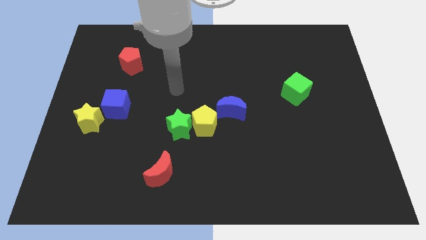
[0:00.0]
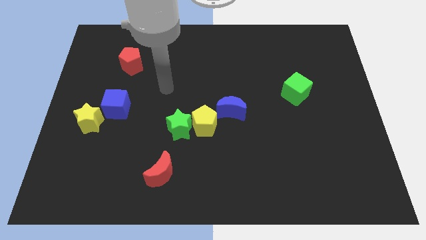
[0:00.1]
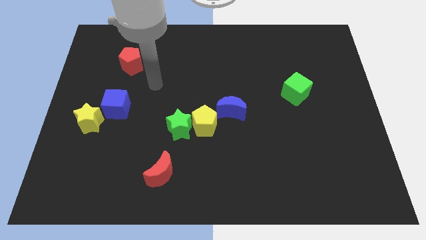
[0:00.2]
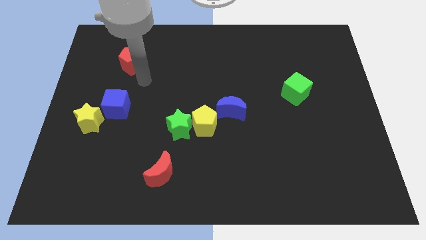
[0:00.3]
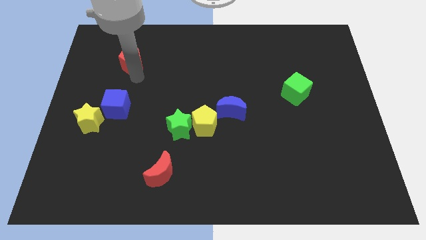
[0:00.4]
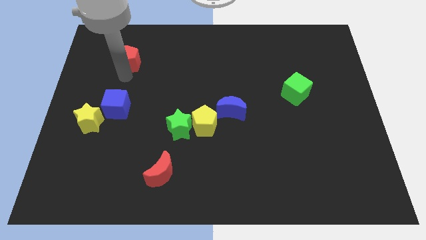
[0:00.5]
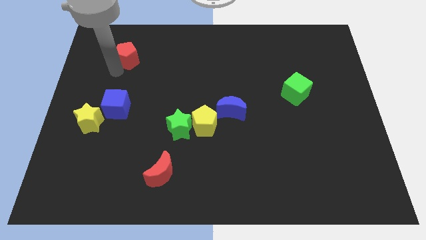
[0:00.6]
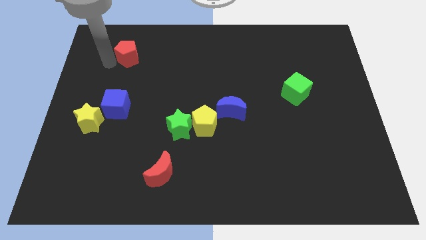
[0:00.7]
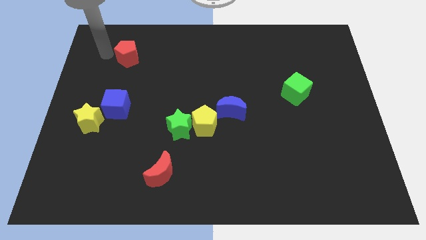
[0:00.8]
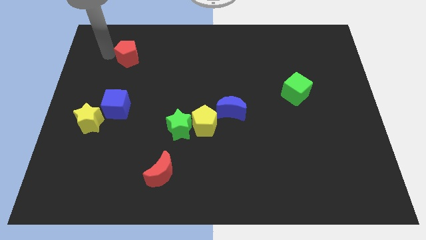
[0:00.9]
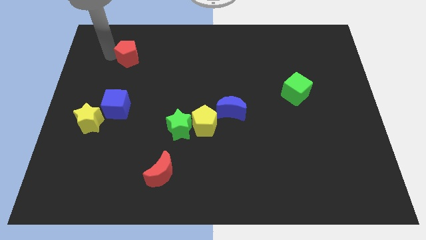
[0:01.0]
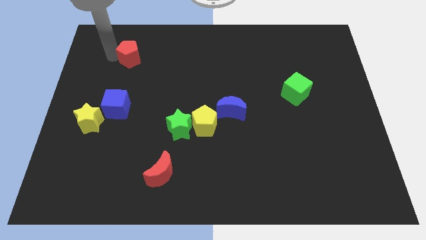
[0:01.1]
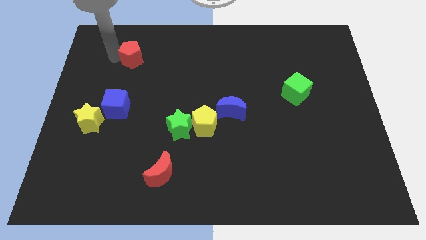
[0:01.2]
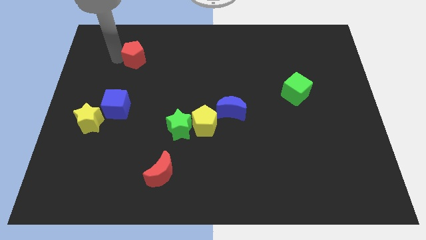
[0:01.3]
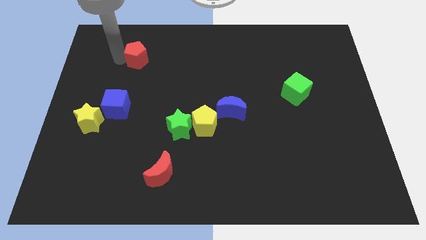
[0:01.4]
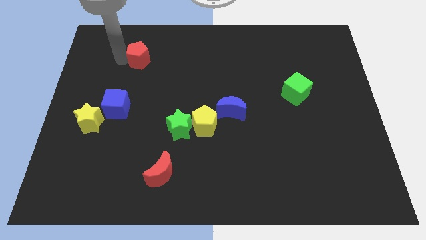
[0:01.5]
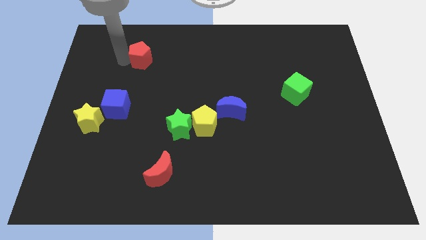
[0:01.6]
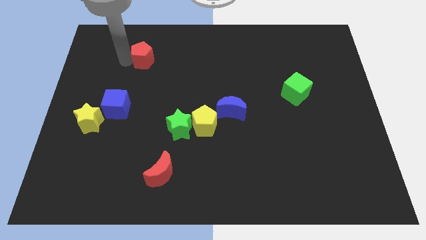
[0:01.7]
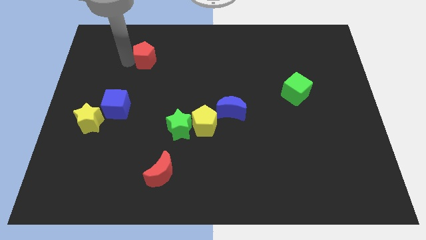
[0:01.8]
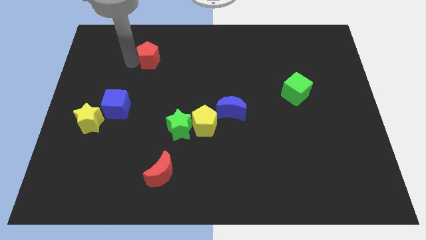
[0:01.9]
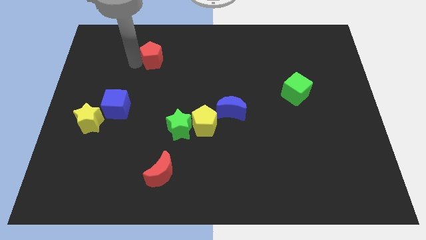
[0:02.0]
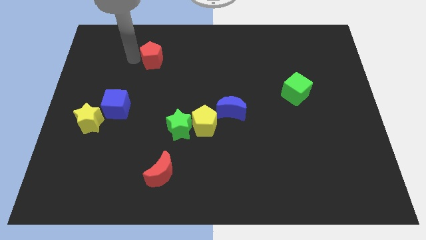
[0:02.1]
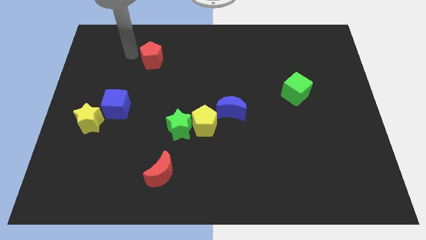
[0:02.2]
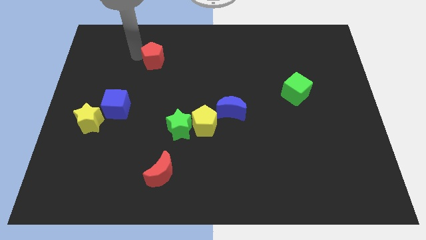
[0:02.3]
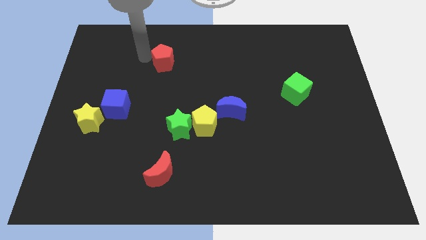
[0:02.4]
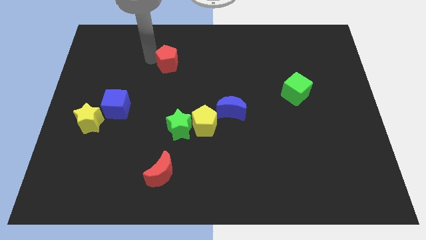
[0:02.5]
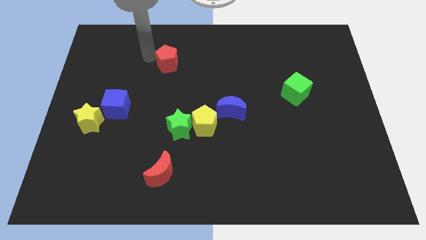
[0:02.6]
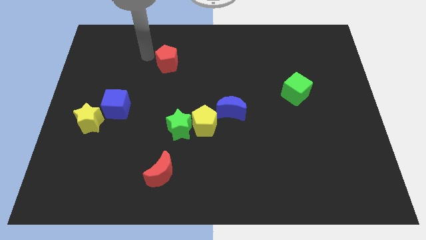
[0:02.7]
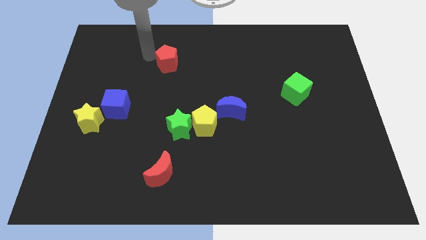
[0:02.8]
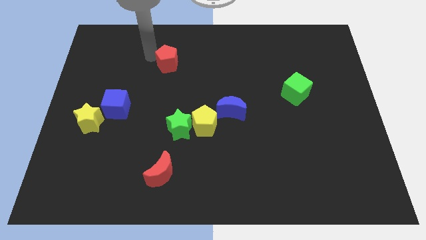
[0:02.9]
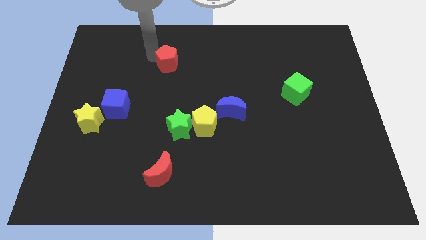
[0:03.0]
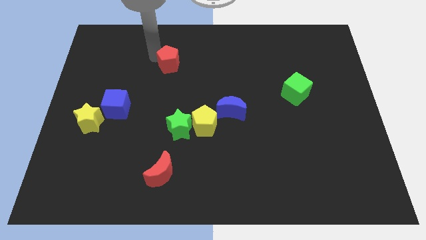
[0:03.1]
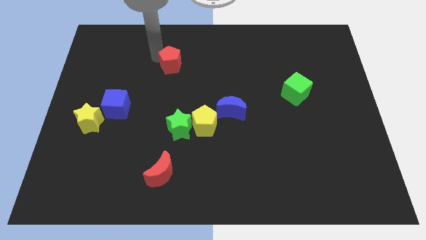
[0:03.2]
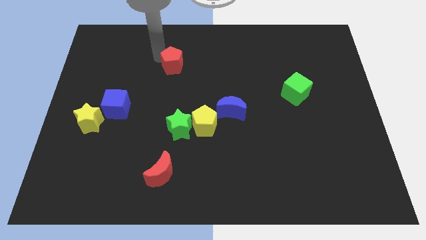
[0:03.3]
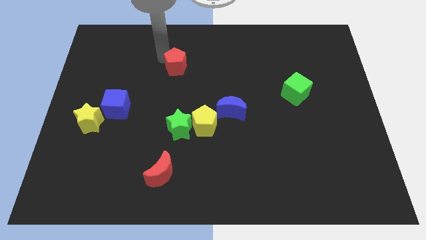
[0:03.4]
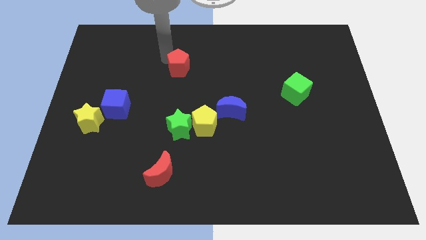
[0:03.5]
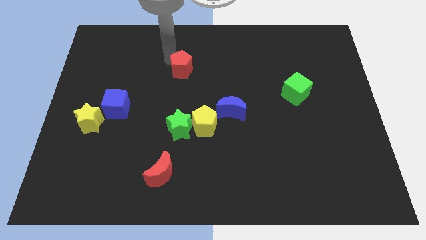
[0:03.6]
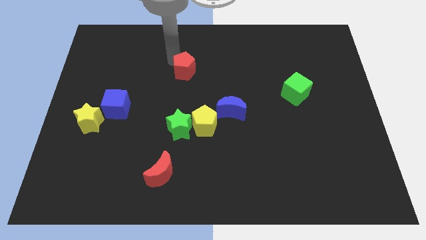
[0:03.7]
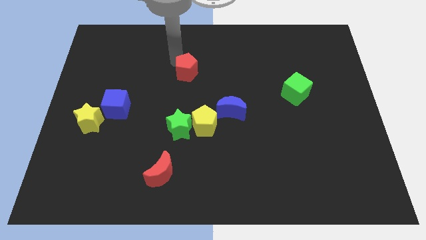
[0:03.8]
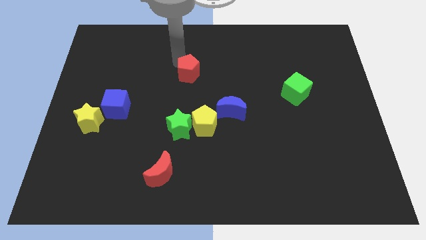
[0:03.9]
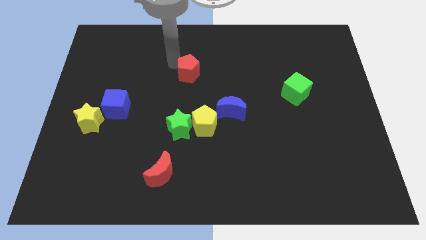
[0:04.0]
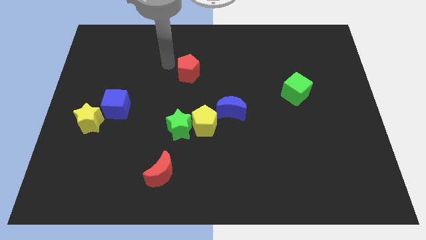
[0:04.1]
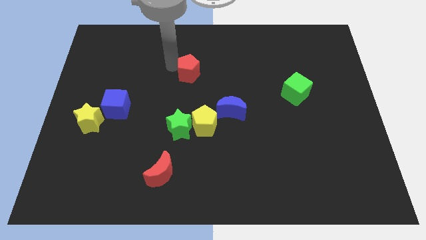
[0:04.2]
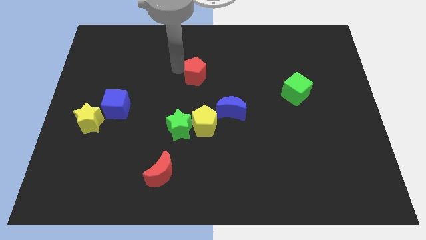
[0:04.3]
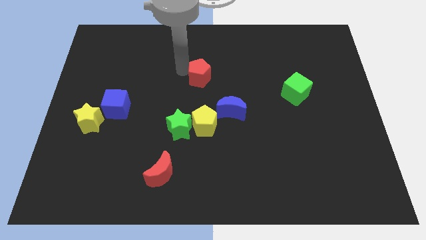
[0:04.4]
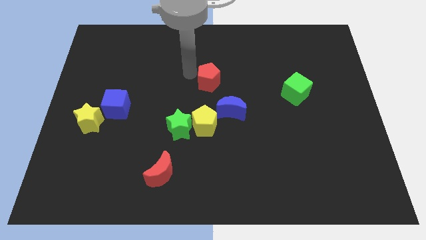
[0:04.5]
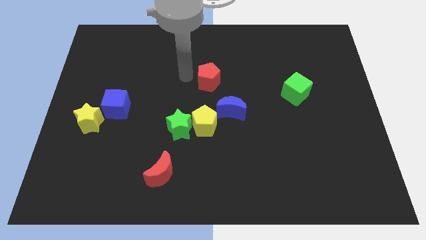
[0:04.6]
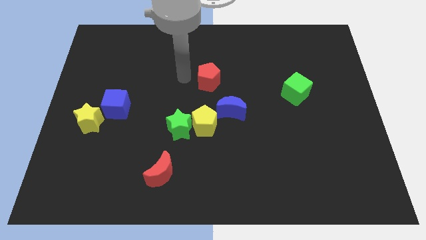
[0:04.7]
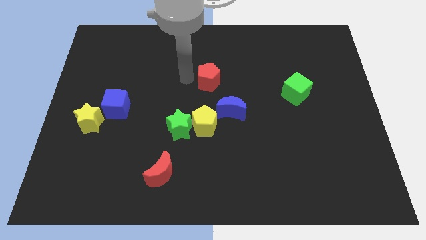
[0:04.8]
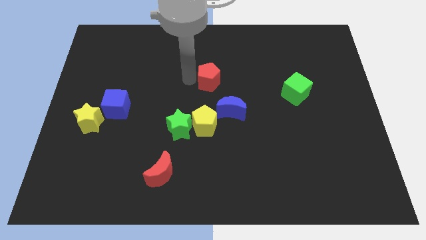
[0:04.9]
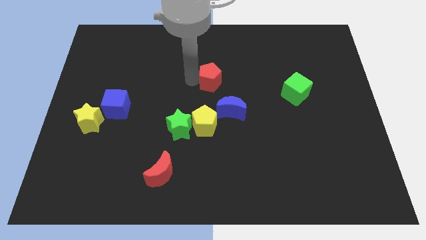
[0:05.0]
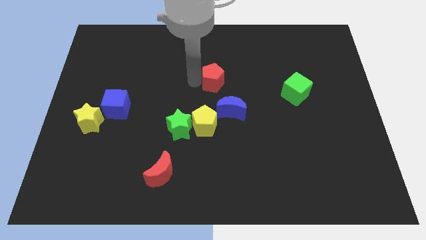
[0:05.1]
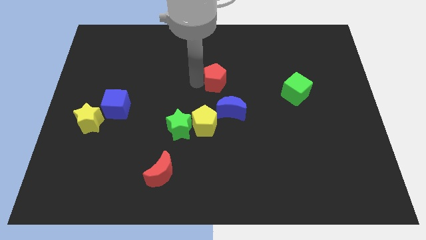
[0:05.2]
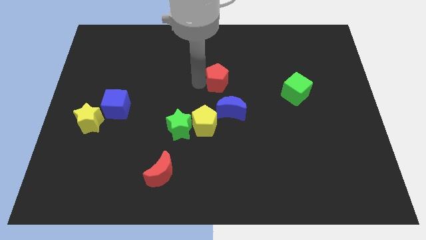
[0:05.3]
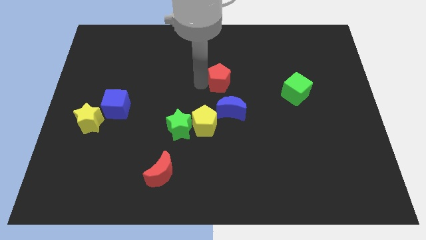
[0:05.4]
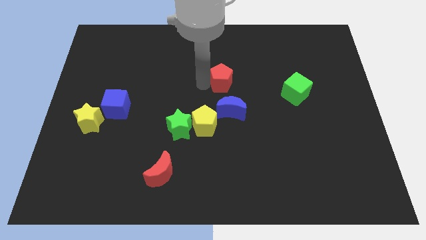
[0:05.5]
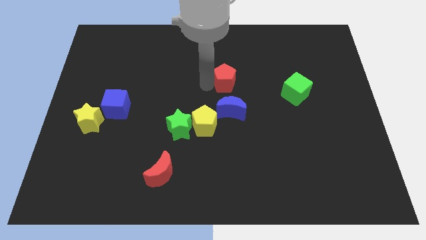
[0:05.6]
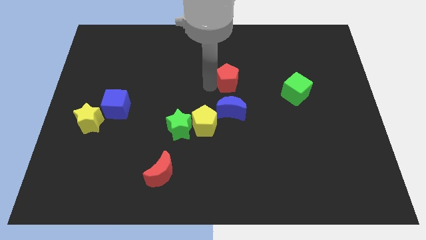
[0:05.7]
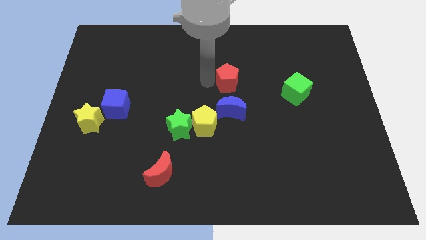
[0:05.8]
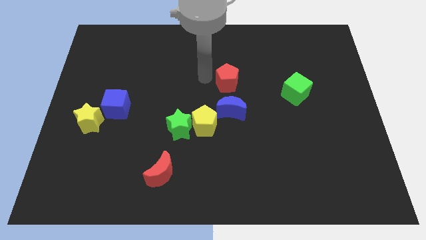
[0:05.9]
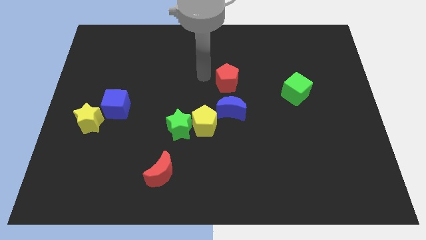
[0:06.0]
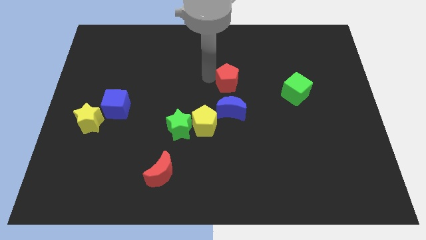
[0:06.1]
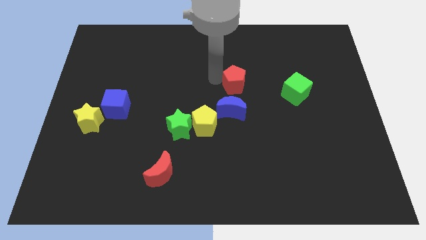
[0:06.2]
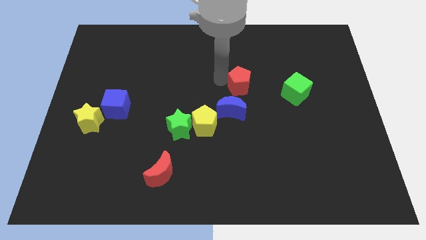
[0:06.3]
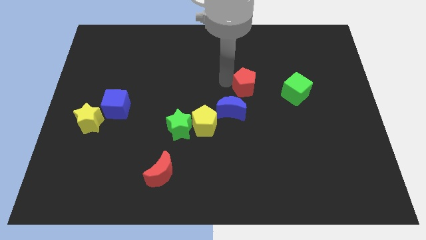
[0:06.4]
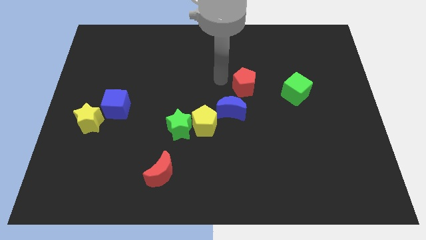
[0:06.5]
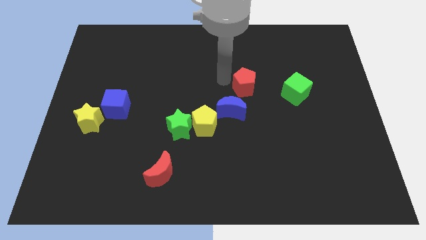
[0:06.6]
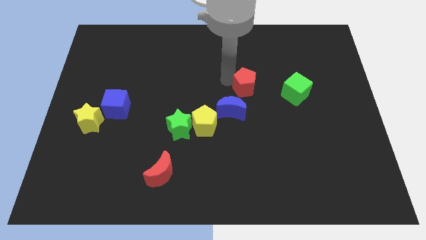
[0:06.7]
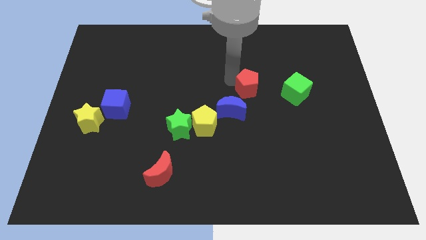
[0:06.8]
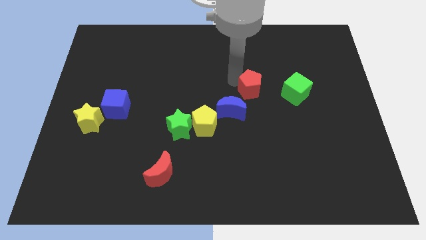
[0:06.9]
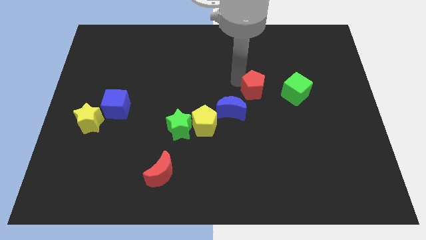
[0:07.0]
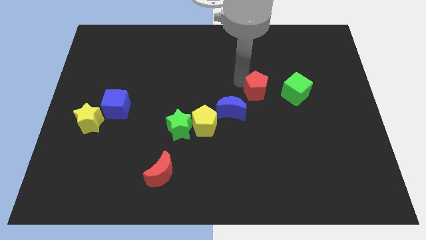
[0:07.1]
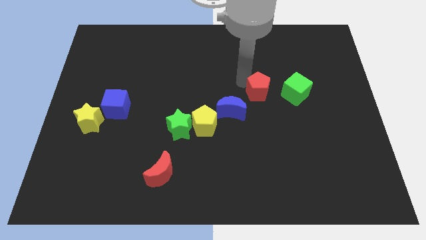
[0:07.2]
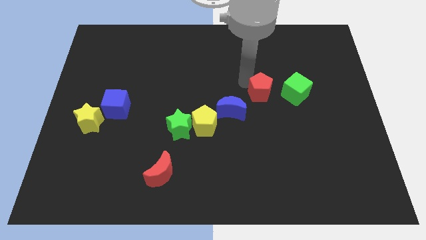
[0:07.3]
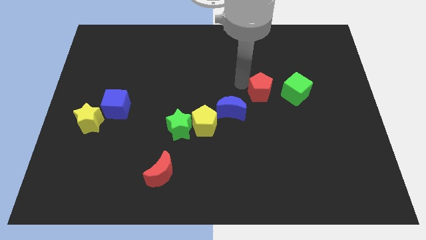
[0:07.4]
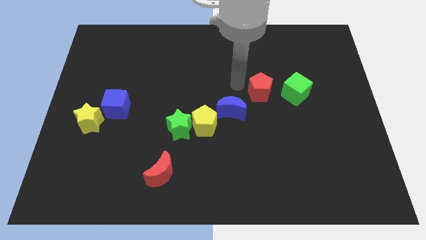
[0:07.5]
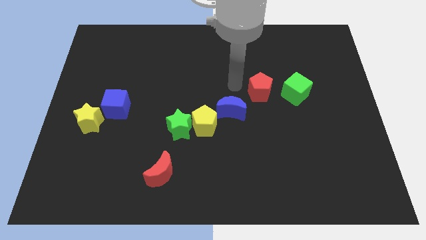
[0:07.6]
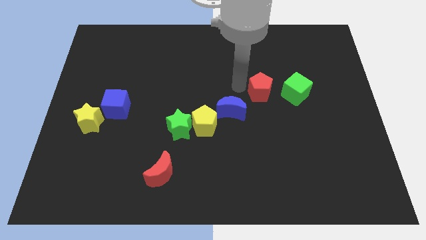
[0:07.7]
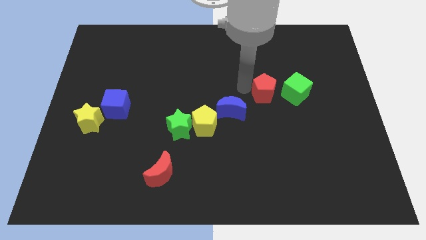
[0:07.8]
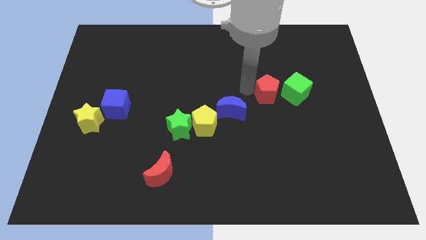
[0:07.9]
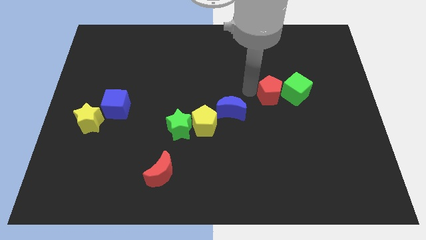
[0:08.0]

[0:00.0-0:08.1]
move the red pentagon to the green cube
